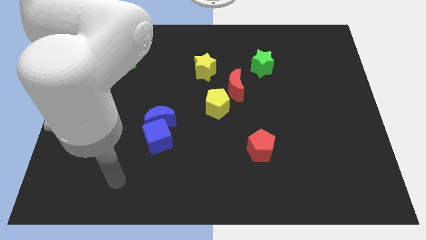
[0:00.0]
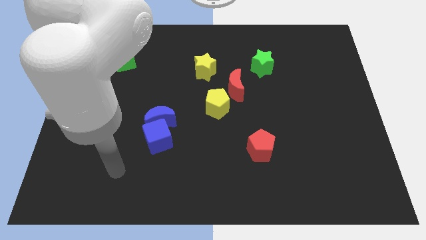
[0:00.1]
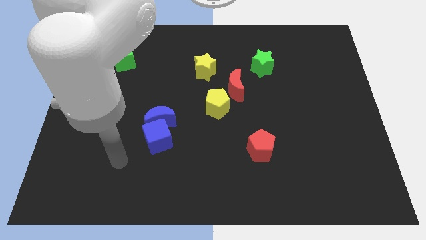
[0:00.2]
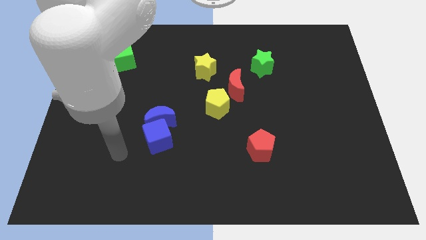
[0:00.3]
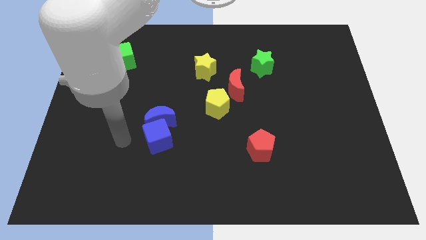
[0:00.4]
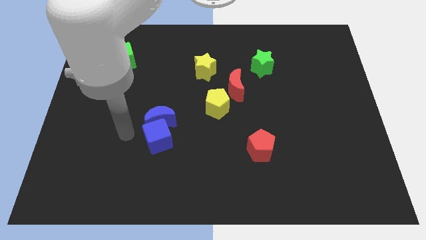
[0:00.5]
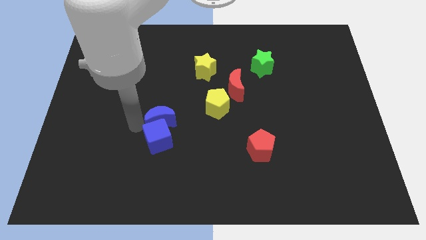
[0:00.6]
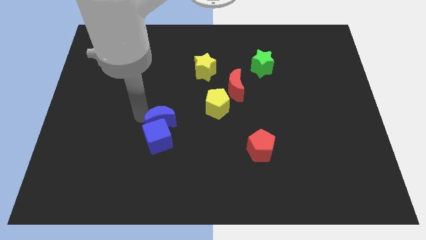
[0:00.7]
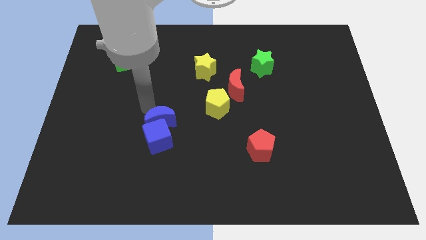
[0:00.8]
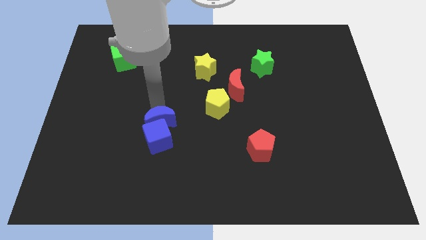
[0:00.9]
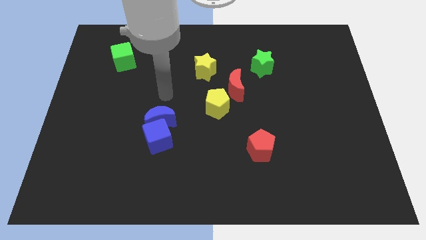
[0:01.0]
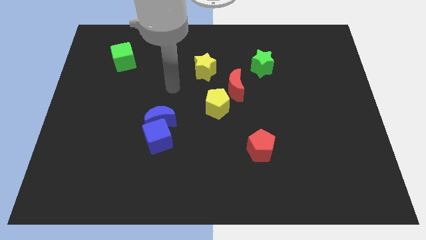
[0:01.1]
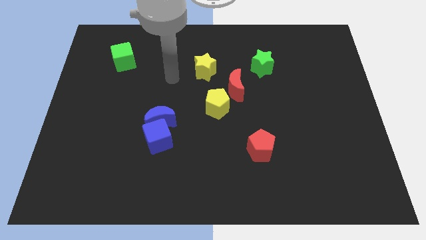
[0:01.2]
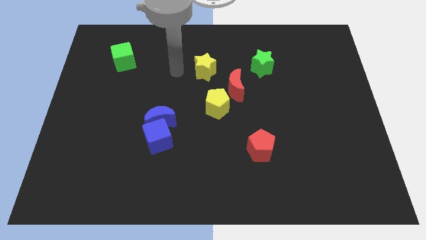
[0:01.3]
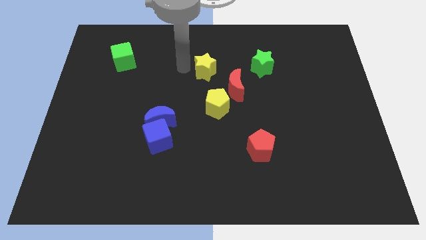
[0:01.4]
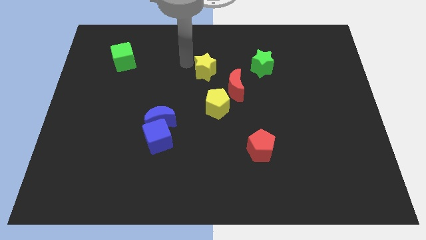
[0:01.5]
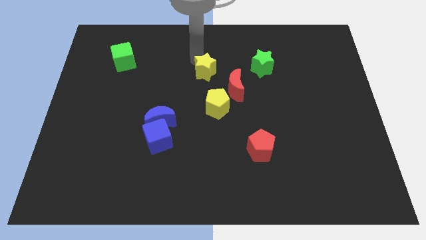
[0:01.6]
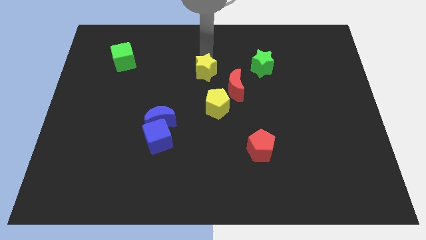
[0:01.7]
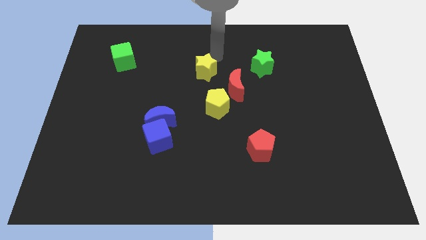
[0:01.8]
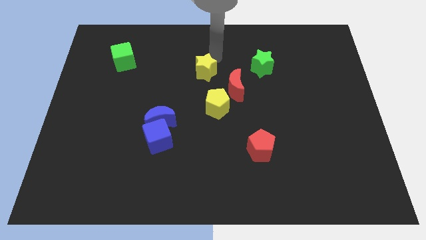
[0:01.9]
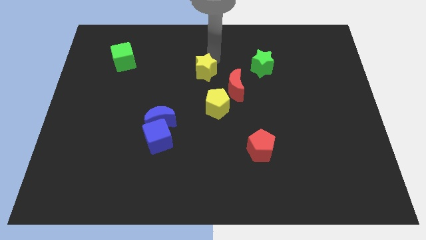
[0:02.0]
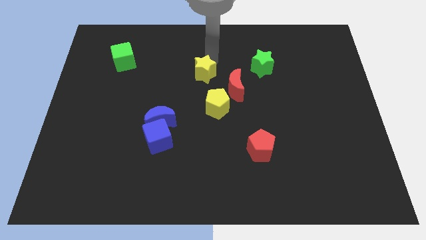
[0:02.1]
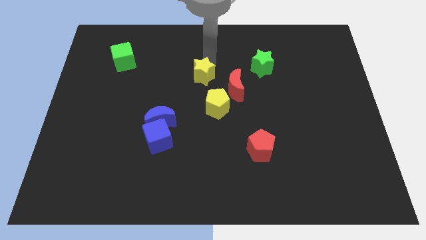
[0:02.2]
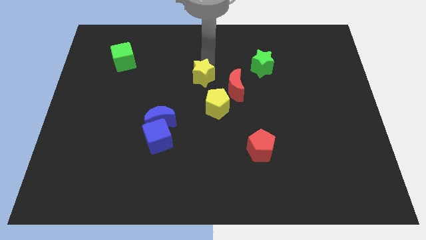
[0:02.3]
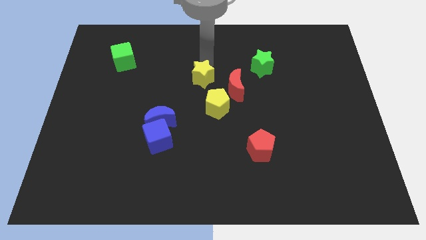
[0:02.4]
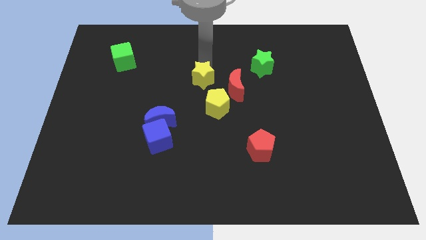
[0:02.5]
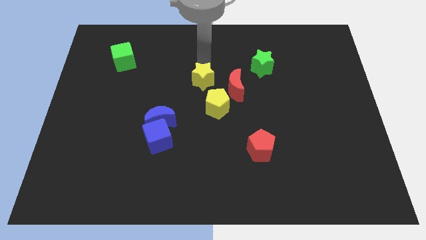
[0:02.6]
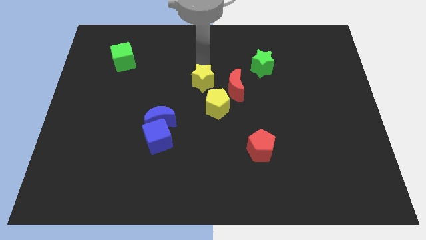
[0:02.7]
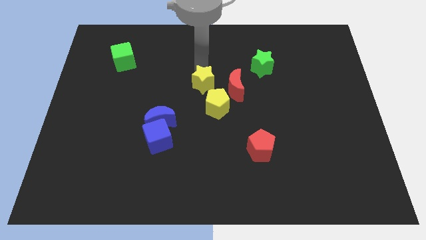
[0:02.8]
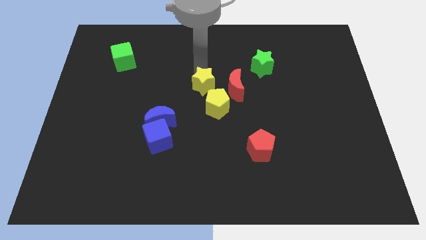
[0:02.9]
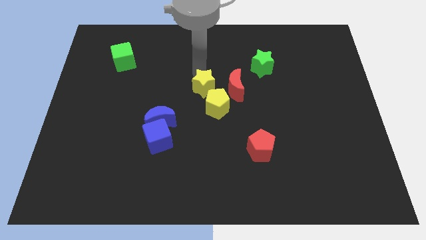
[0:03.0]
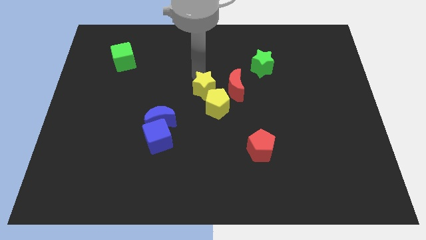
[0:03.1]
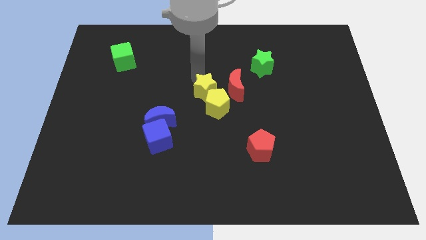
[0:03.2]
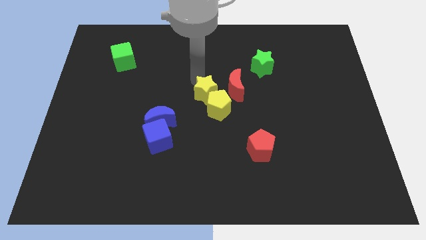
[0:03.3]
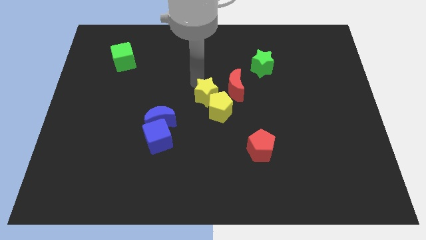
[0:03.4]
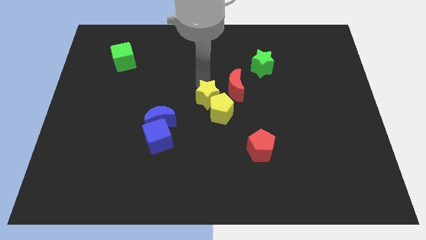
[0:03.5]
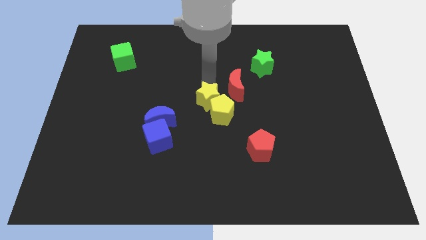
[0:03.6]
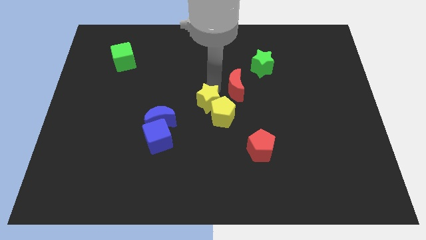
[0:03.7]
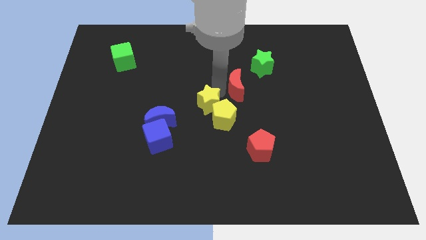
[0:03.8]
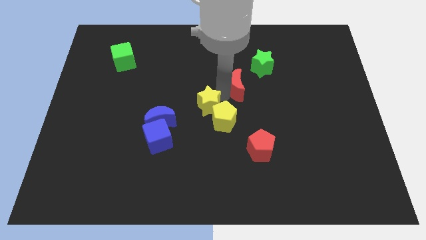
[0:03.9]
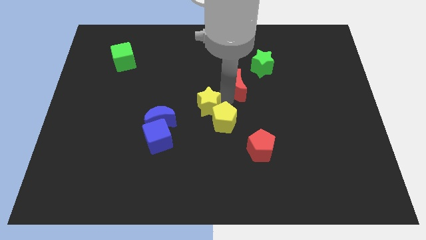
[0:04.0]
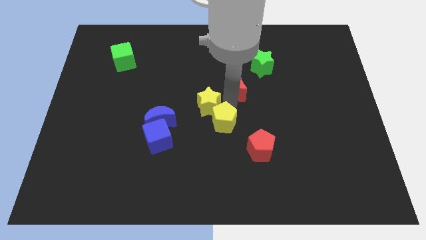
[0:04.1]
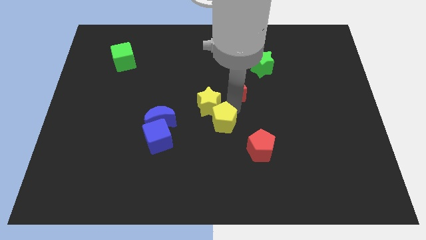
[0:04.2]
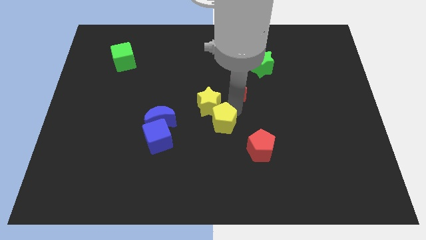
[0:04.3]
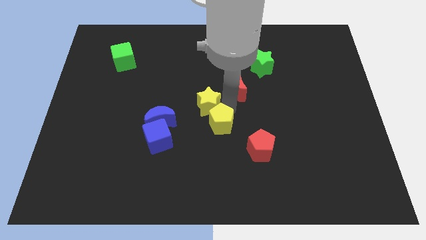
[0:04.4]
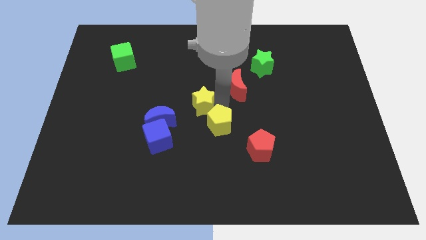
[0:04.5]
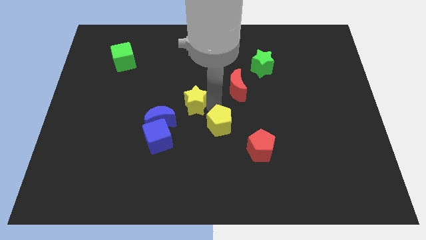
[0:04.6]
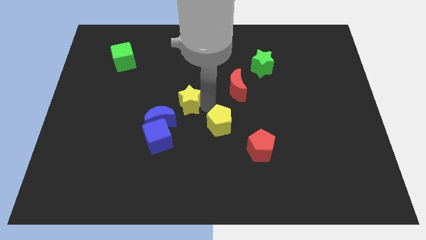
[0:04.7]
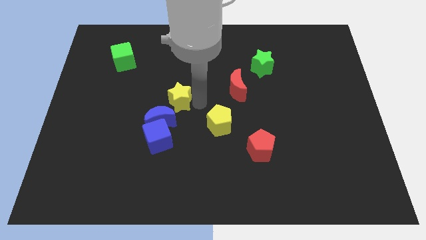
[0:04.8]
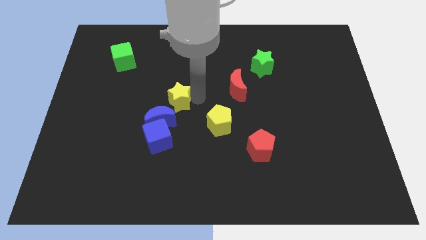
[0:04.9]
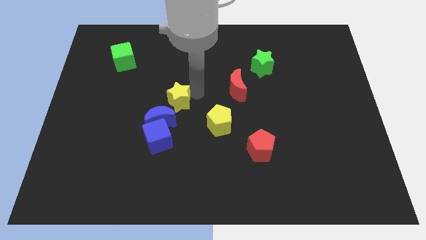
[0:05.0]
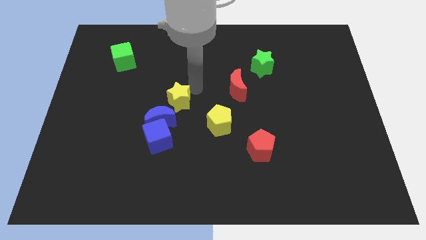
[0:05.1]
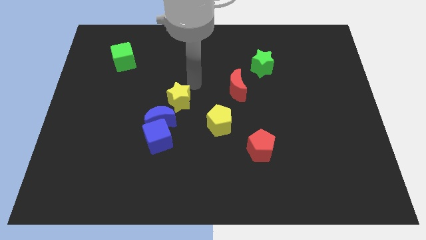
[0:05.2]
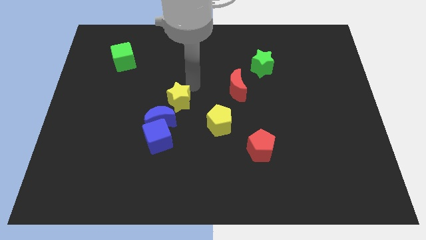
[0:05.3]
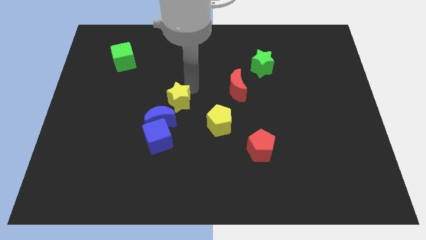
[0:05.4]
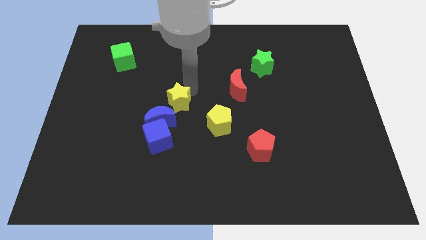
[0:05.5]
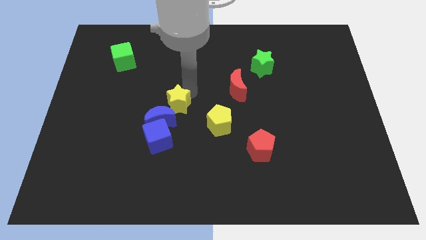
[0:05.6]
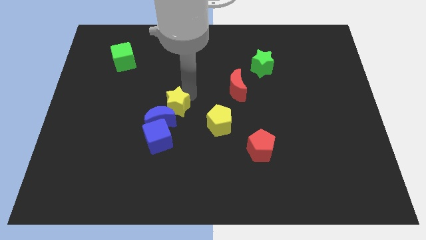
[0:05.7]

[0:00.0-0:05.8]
put the yellow star close to the blue moon

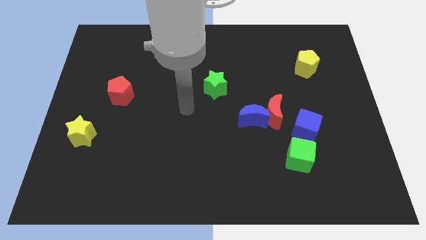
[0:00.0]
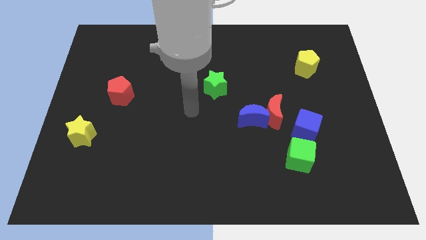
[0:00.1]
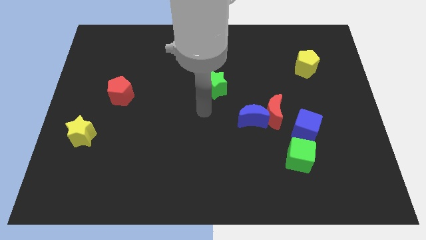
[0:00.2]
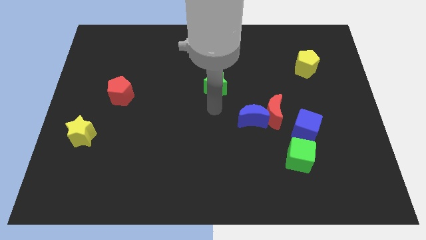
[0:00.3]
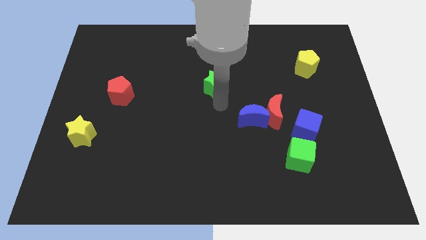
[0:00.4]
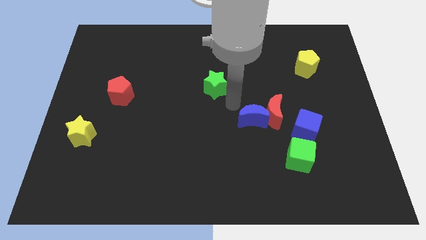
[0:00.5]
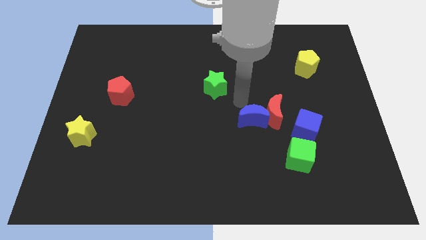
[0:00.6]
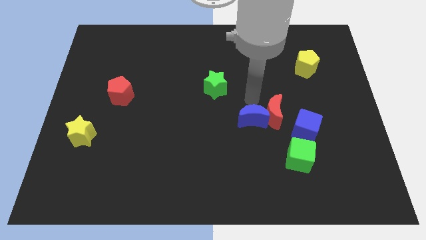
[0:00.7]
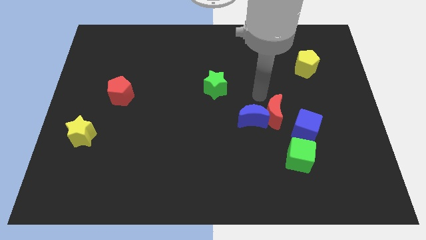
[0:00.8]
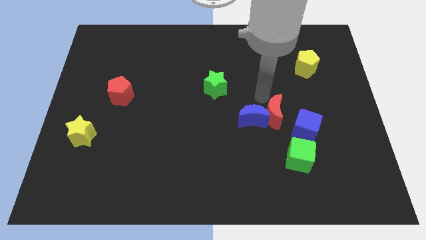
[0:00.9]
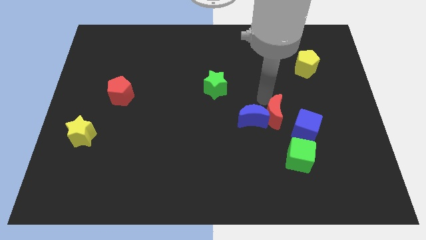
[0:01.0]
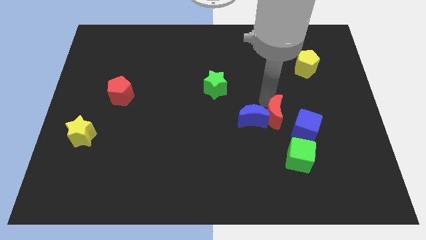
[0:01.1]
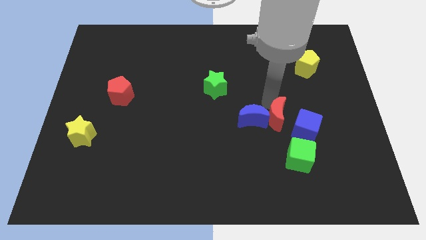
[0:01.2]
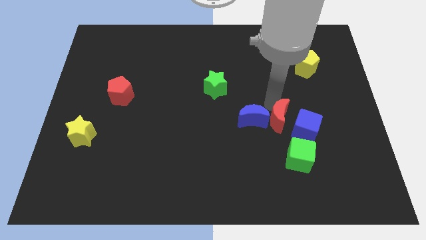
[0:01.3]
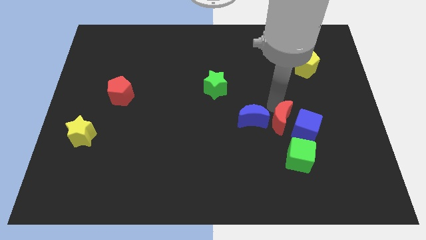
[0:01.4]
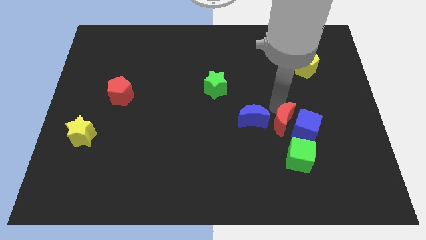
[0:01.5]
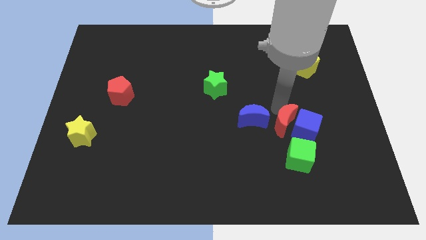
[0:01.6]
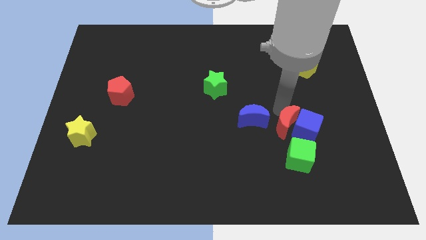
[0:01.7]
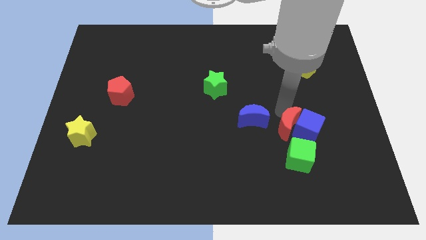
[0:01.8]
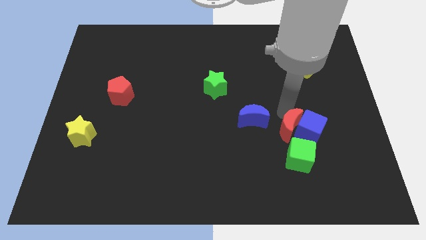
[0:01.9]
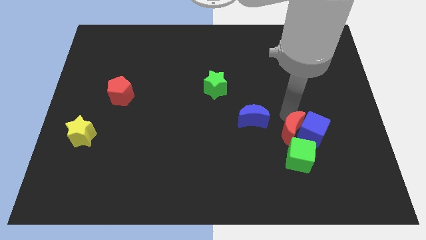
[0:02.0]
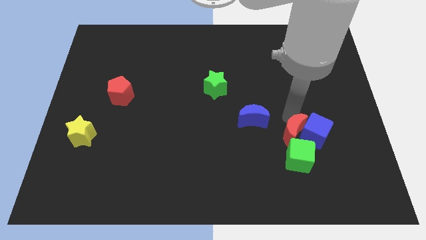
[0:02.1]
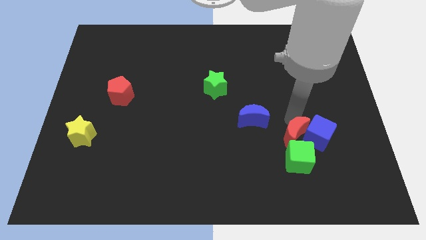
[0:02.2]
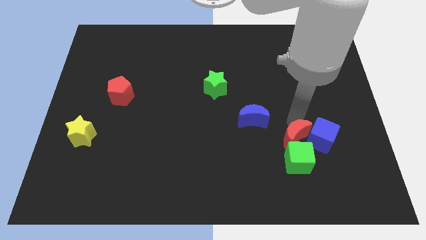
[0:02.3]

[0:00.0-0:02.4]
put the red moon to the green cube
